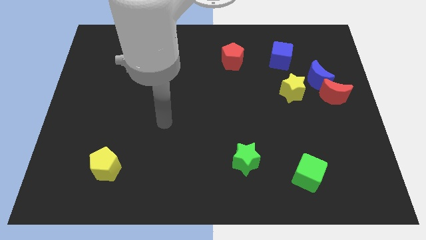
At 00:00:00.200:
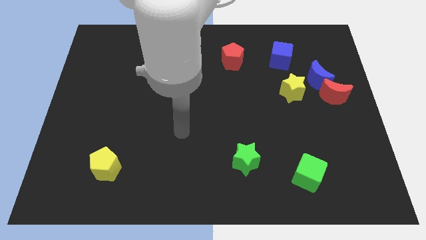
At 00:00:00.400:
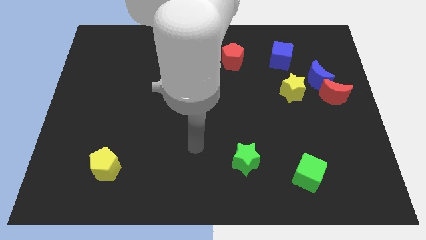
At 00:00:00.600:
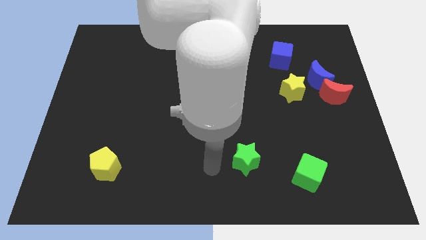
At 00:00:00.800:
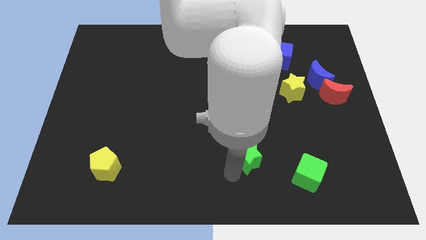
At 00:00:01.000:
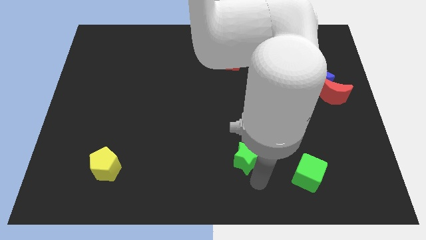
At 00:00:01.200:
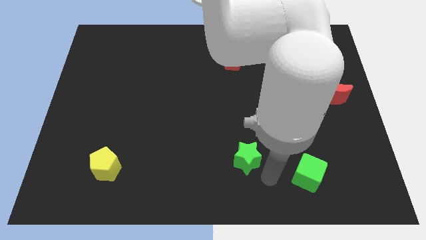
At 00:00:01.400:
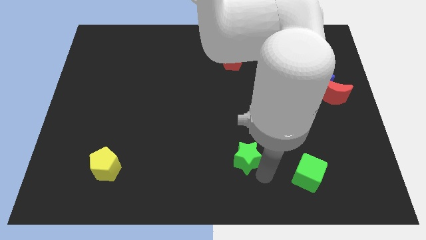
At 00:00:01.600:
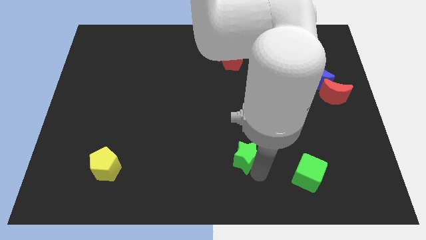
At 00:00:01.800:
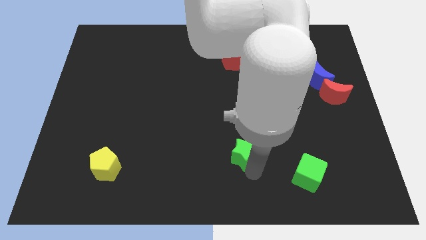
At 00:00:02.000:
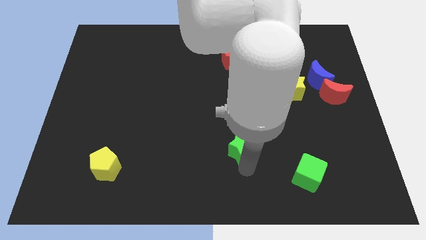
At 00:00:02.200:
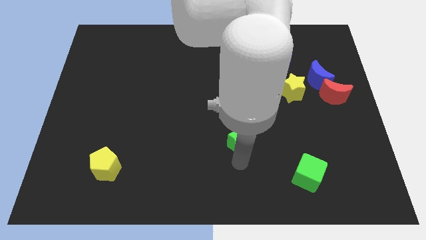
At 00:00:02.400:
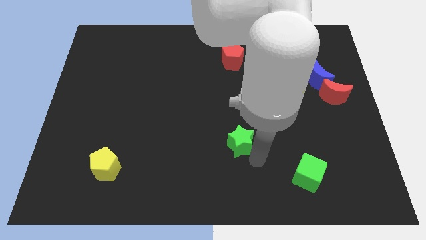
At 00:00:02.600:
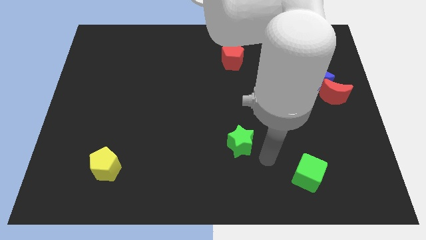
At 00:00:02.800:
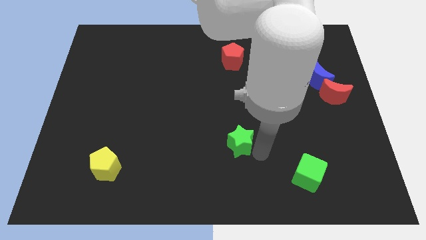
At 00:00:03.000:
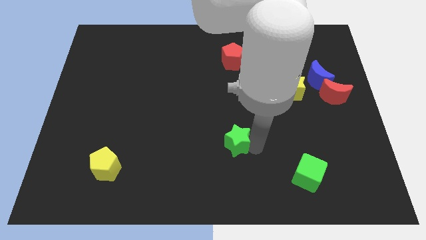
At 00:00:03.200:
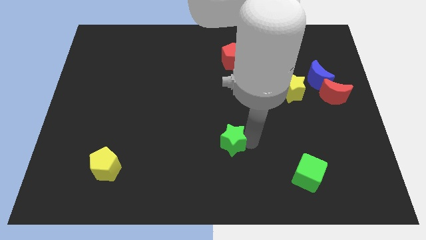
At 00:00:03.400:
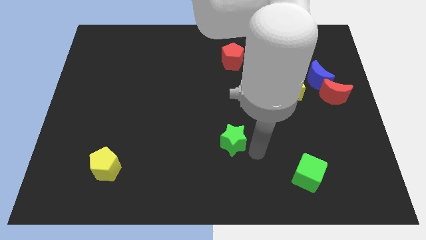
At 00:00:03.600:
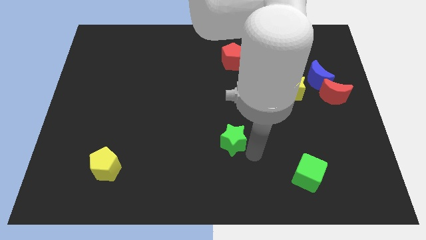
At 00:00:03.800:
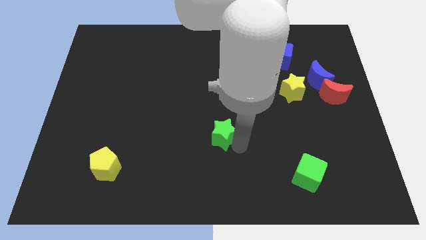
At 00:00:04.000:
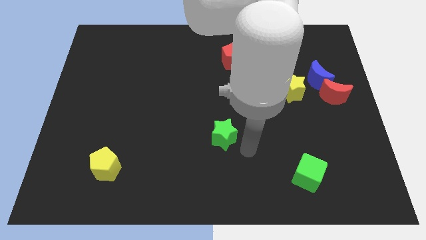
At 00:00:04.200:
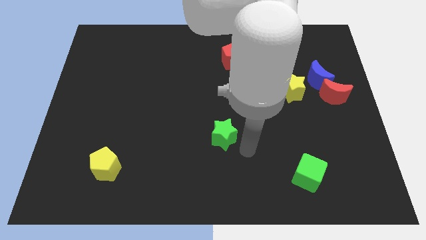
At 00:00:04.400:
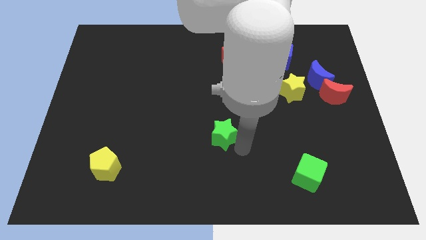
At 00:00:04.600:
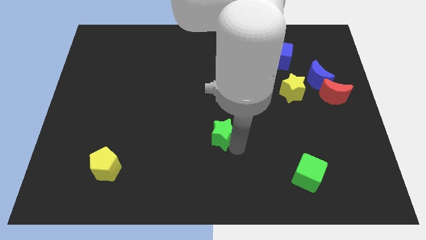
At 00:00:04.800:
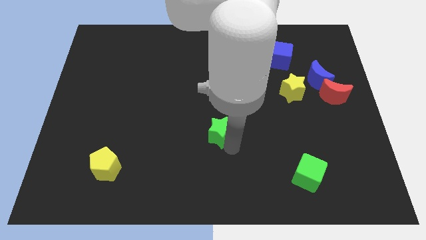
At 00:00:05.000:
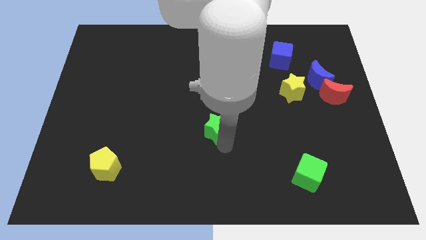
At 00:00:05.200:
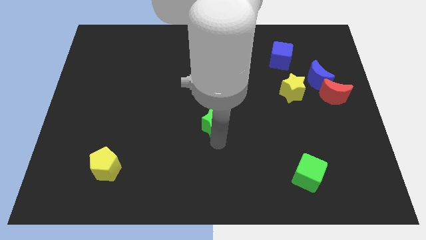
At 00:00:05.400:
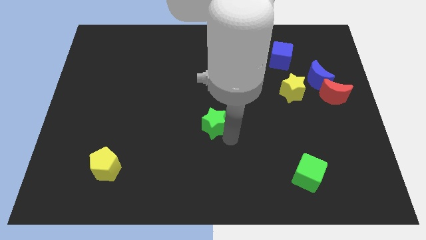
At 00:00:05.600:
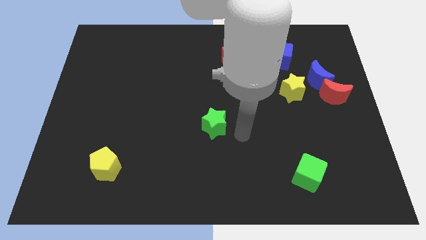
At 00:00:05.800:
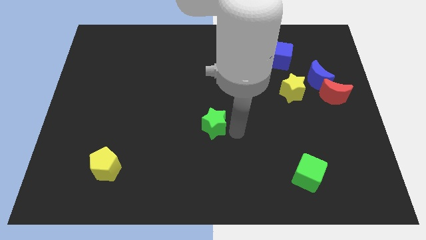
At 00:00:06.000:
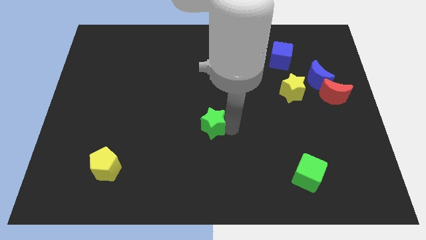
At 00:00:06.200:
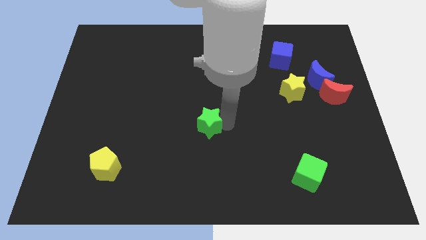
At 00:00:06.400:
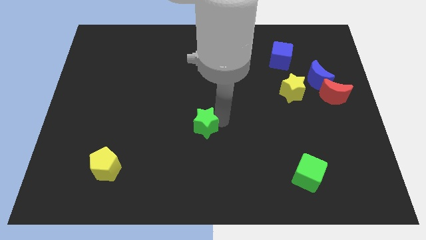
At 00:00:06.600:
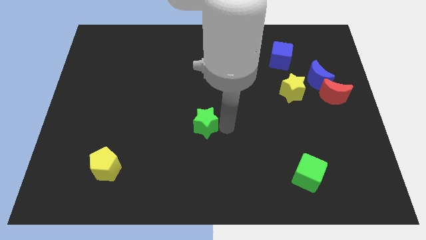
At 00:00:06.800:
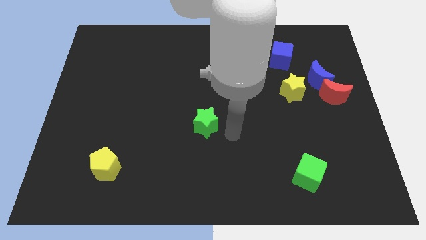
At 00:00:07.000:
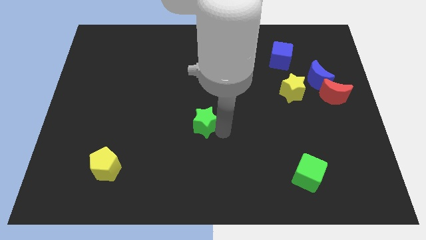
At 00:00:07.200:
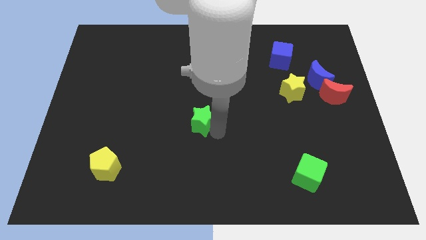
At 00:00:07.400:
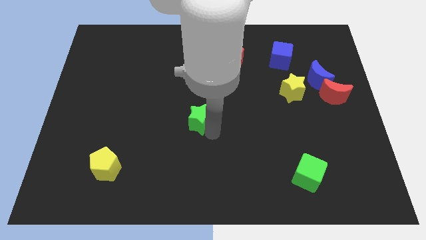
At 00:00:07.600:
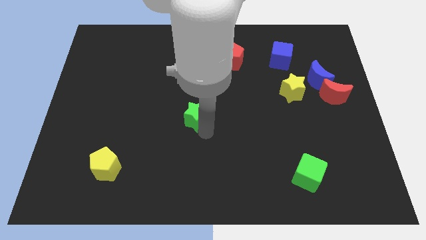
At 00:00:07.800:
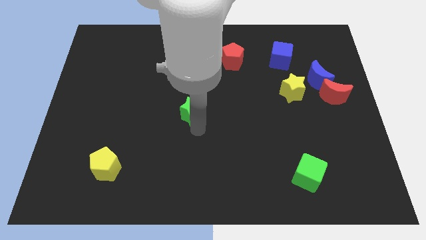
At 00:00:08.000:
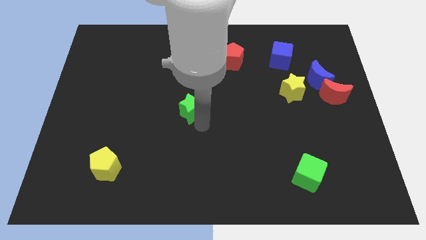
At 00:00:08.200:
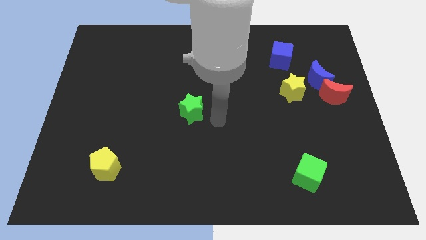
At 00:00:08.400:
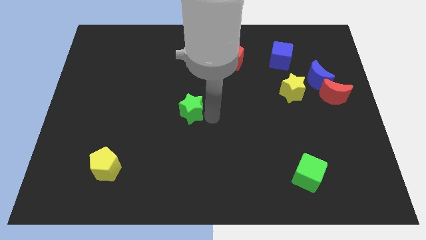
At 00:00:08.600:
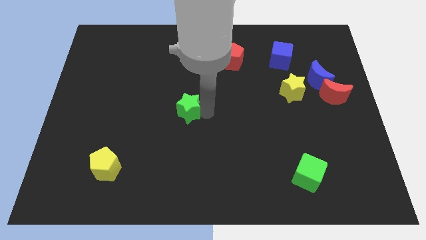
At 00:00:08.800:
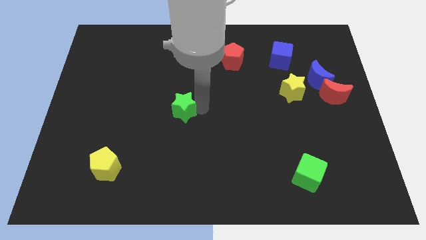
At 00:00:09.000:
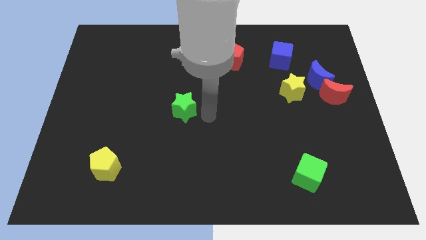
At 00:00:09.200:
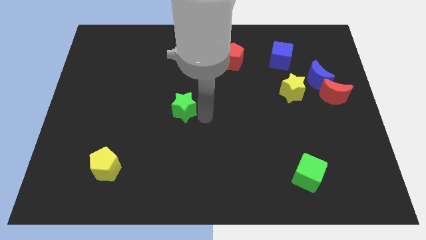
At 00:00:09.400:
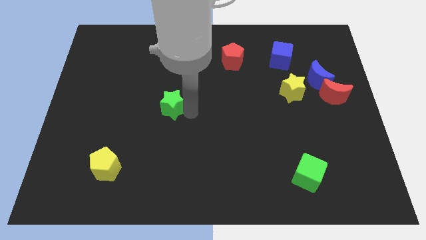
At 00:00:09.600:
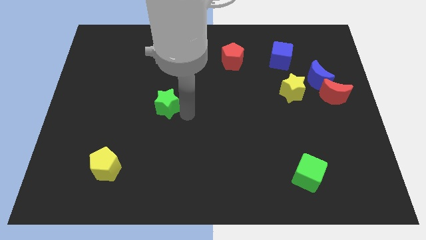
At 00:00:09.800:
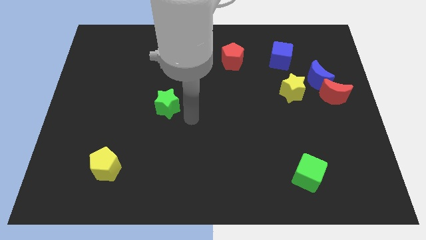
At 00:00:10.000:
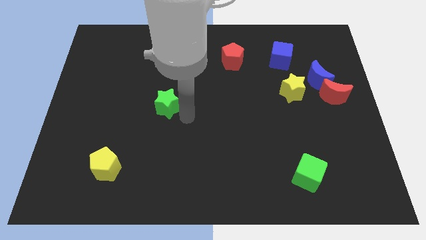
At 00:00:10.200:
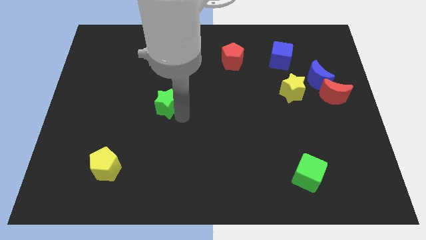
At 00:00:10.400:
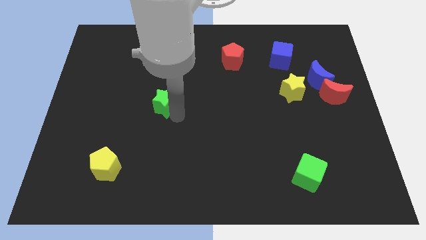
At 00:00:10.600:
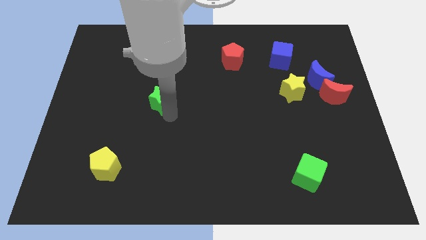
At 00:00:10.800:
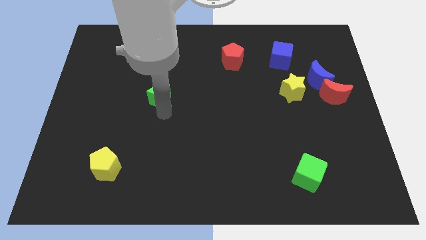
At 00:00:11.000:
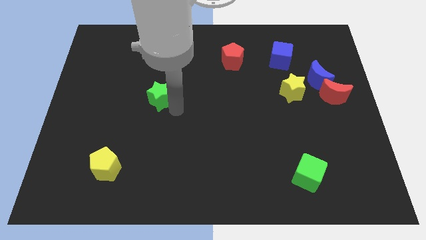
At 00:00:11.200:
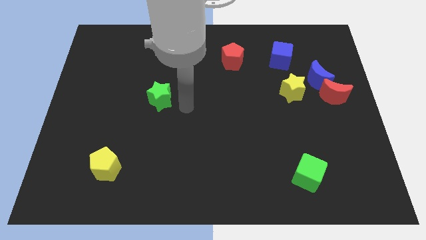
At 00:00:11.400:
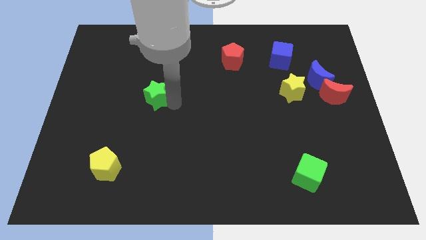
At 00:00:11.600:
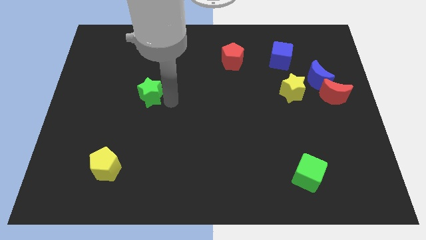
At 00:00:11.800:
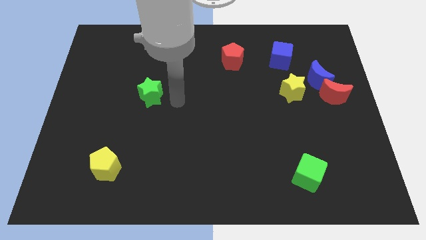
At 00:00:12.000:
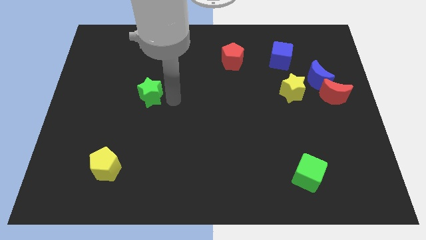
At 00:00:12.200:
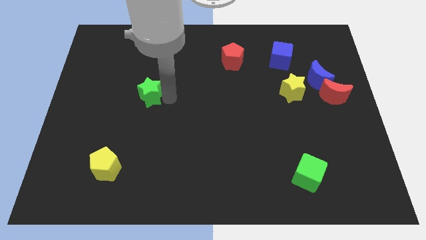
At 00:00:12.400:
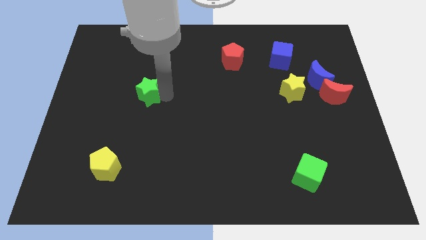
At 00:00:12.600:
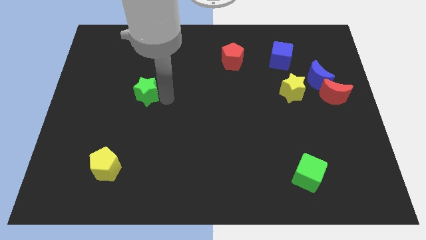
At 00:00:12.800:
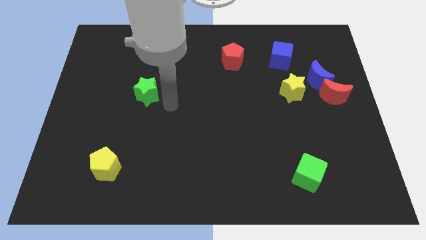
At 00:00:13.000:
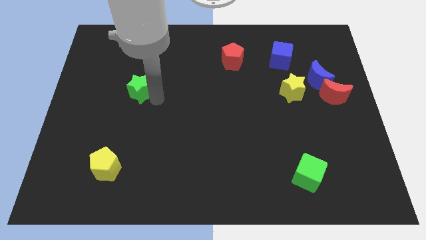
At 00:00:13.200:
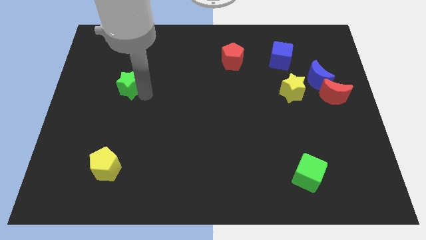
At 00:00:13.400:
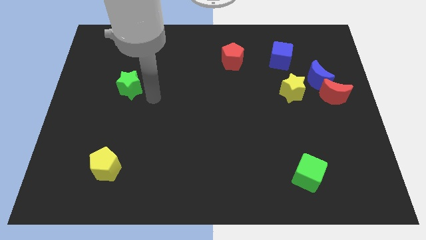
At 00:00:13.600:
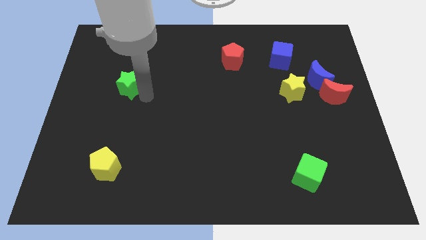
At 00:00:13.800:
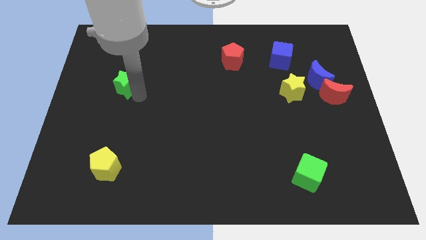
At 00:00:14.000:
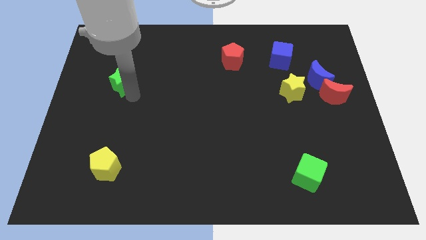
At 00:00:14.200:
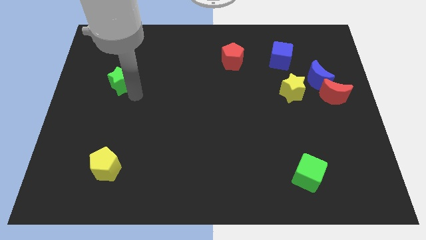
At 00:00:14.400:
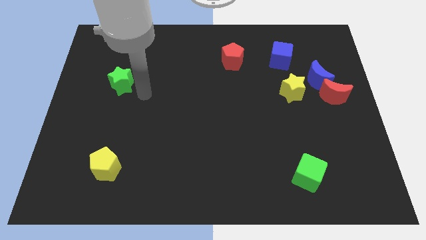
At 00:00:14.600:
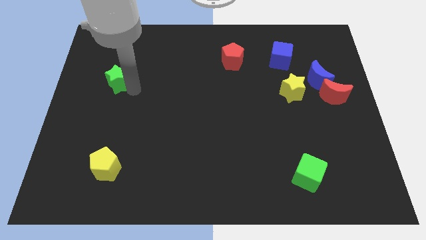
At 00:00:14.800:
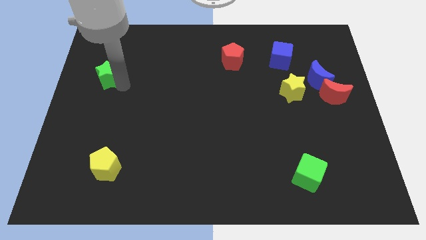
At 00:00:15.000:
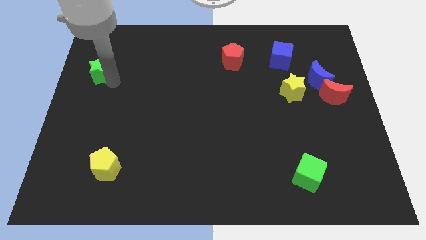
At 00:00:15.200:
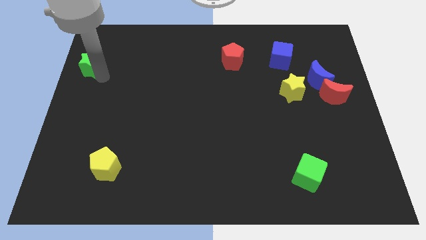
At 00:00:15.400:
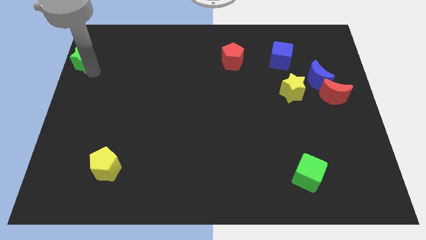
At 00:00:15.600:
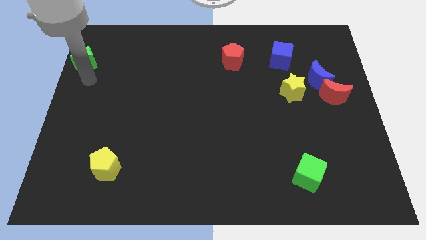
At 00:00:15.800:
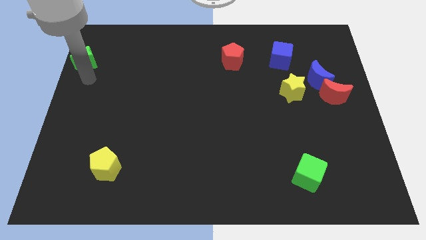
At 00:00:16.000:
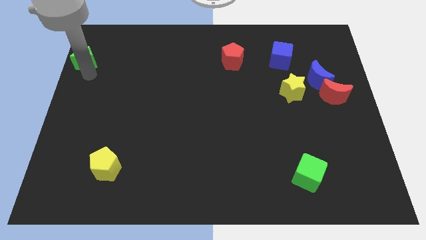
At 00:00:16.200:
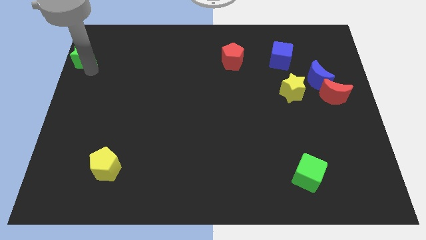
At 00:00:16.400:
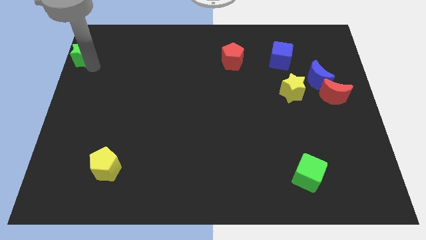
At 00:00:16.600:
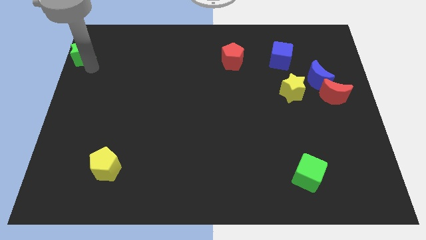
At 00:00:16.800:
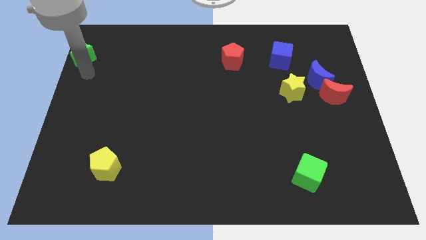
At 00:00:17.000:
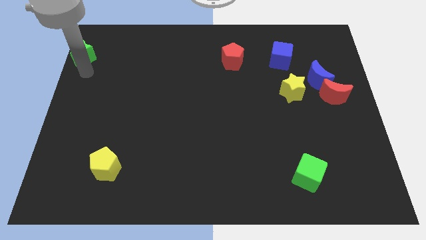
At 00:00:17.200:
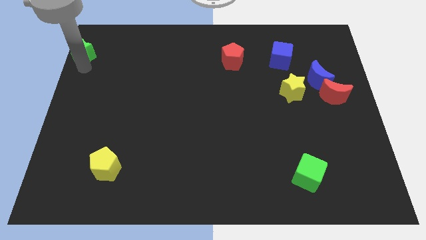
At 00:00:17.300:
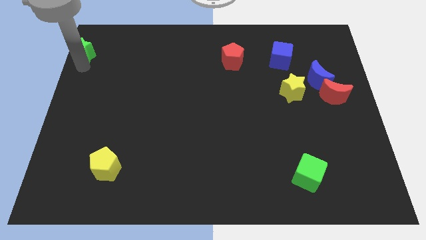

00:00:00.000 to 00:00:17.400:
move the green star to the top left of the board
